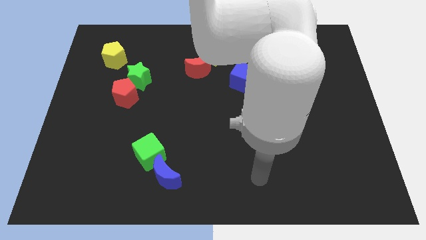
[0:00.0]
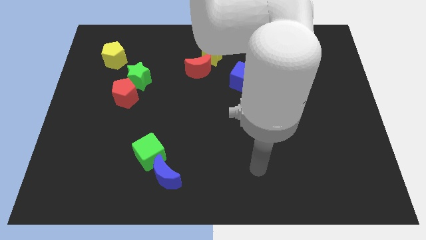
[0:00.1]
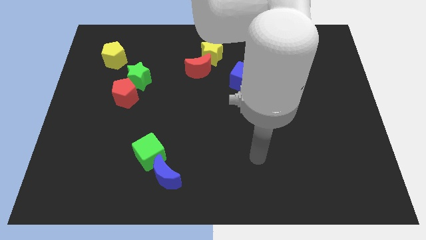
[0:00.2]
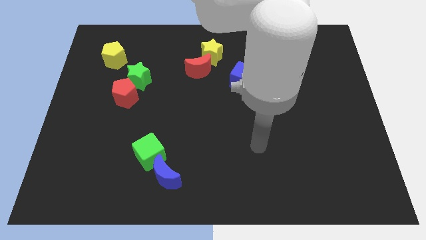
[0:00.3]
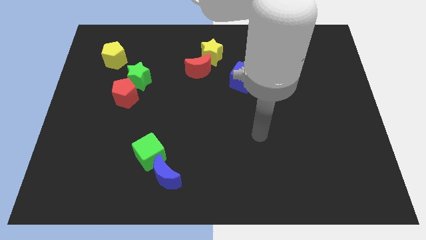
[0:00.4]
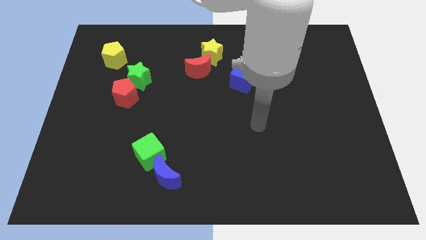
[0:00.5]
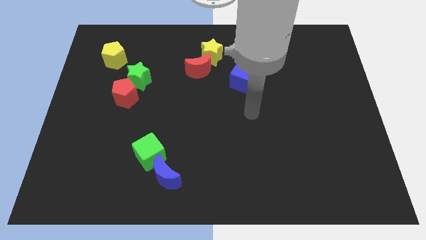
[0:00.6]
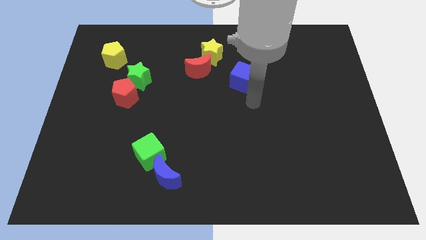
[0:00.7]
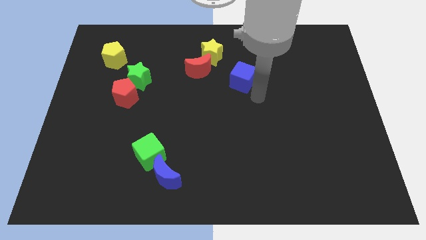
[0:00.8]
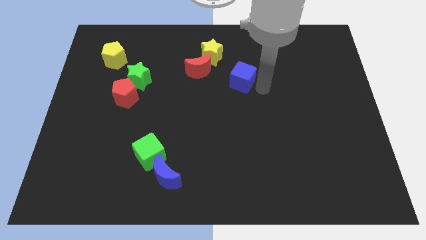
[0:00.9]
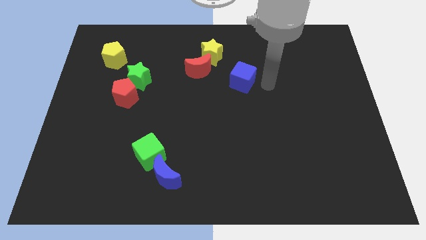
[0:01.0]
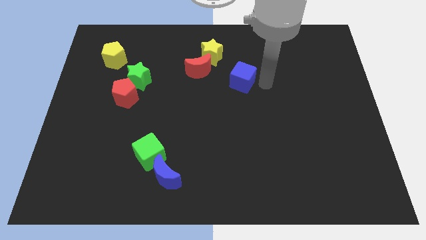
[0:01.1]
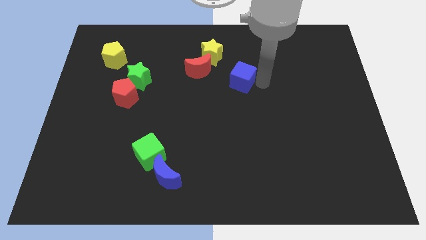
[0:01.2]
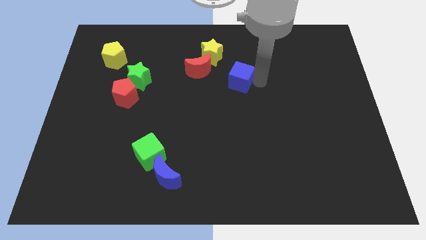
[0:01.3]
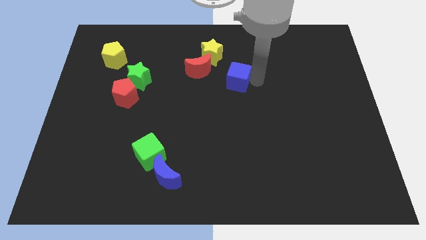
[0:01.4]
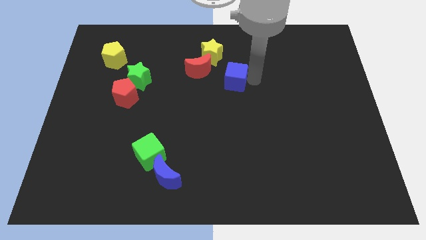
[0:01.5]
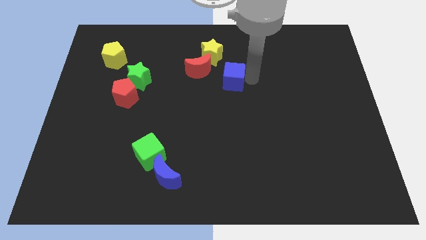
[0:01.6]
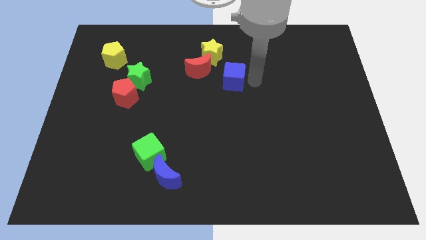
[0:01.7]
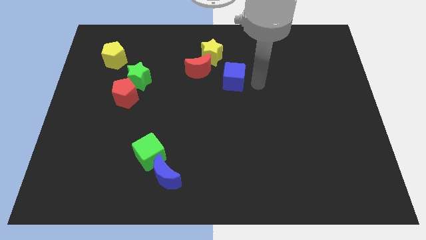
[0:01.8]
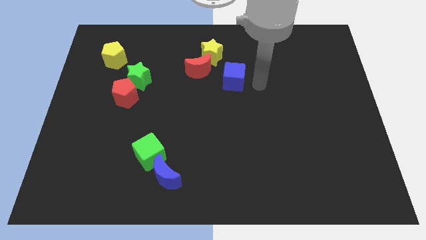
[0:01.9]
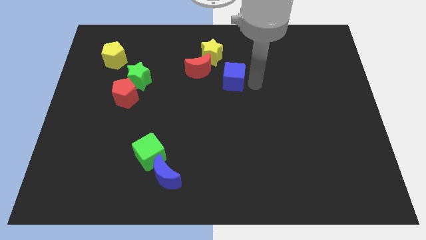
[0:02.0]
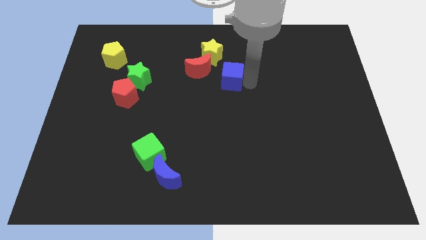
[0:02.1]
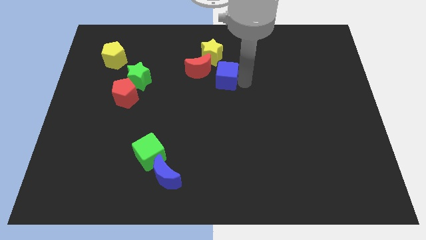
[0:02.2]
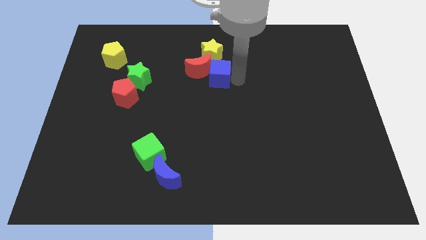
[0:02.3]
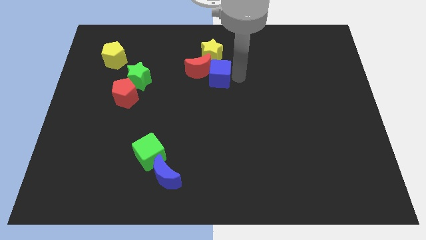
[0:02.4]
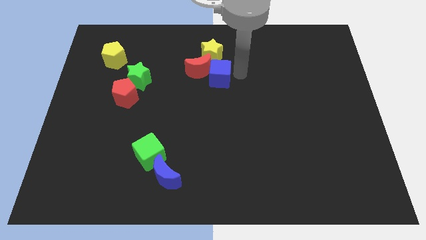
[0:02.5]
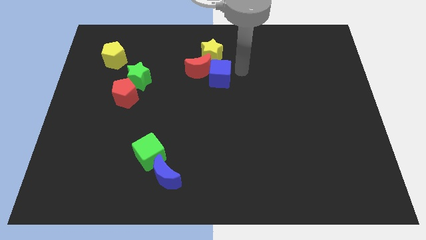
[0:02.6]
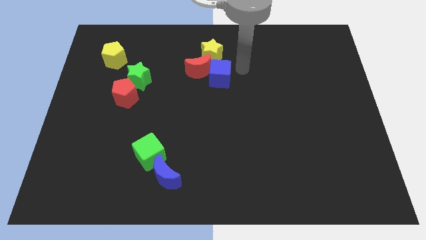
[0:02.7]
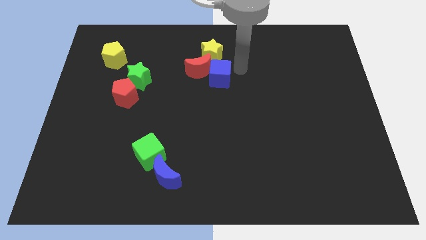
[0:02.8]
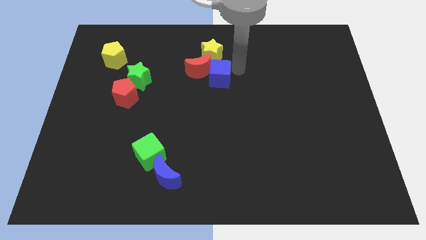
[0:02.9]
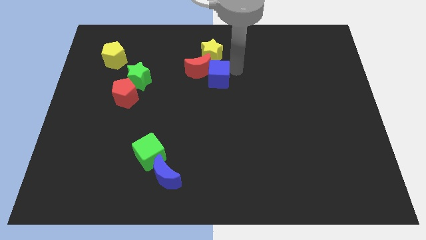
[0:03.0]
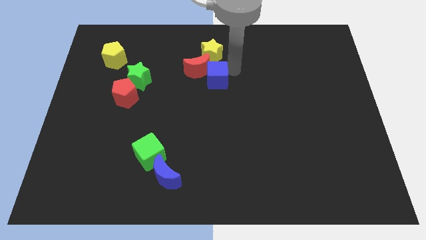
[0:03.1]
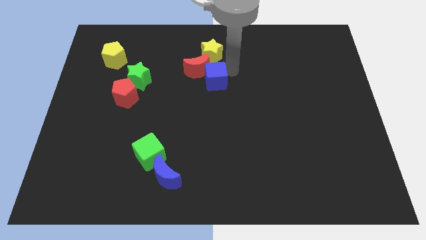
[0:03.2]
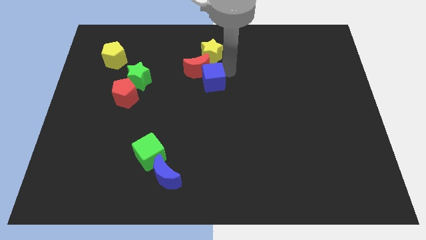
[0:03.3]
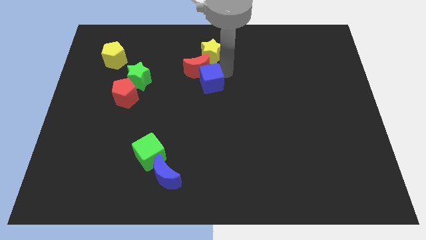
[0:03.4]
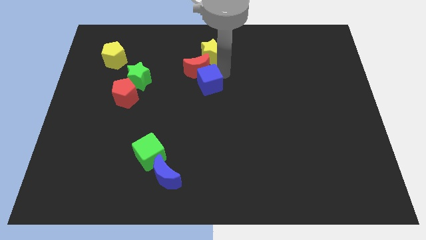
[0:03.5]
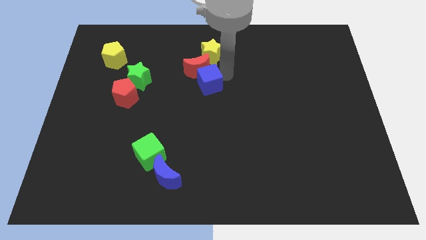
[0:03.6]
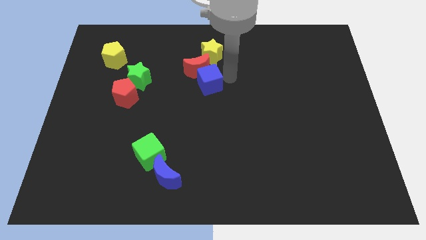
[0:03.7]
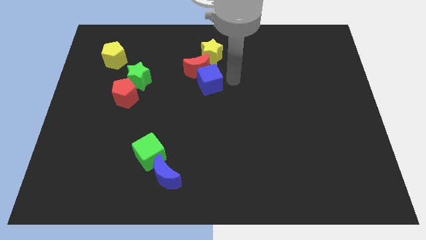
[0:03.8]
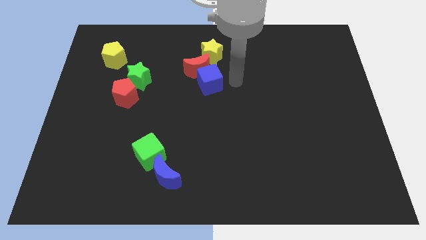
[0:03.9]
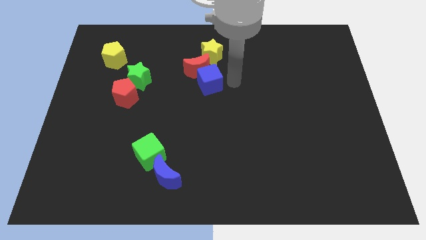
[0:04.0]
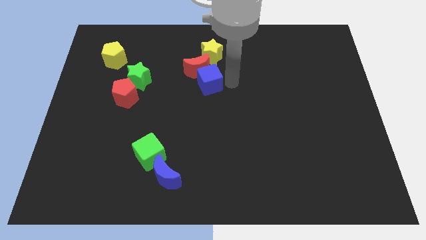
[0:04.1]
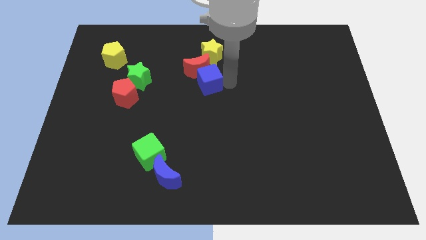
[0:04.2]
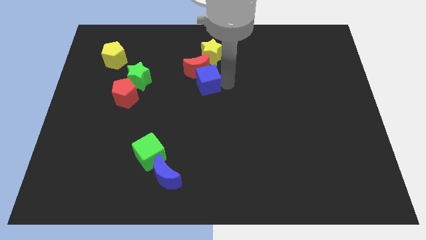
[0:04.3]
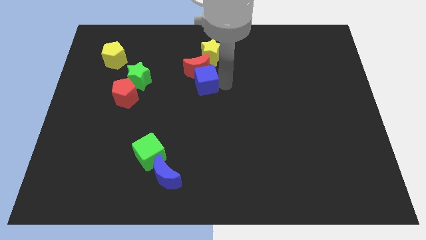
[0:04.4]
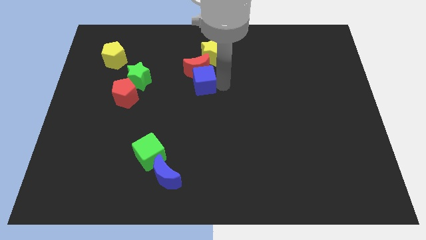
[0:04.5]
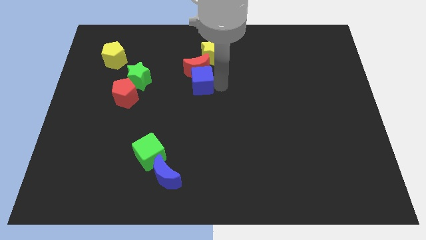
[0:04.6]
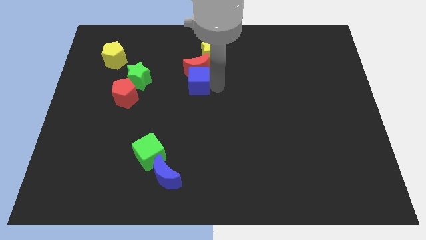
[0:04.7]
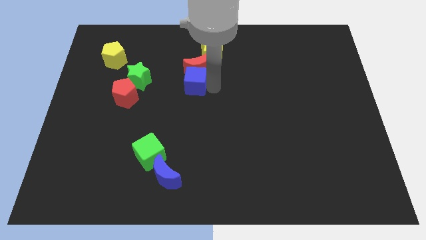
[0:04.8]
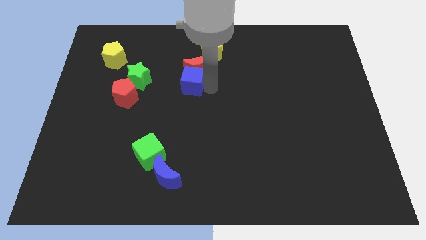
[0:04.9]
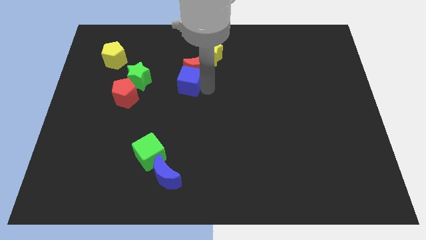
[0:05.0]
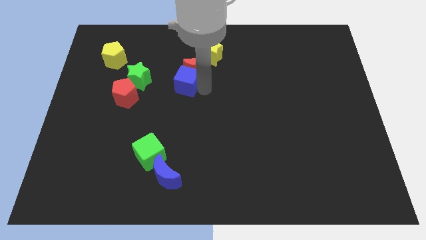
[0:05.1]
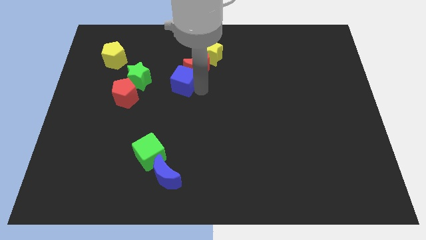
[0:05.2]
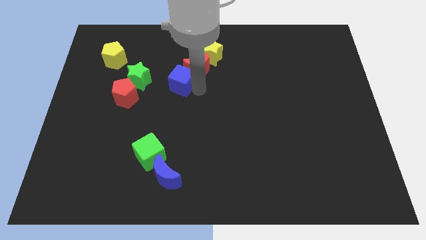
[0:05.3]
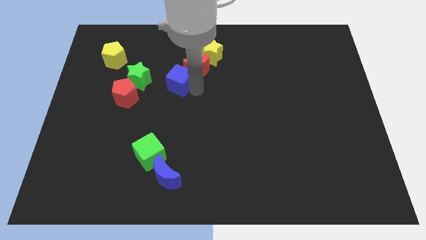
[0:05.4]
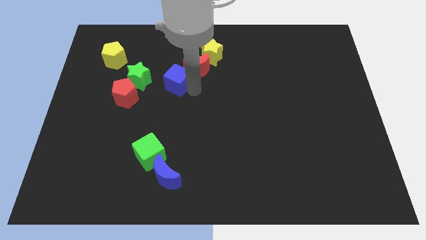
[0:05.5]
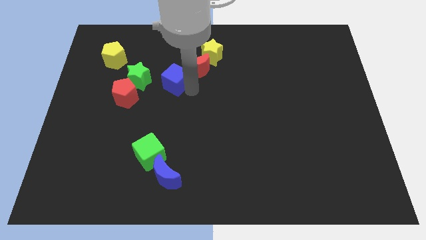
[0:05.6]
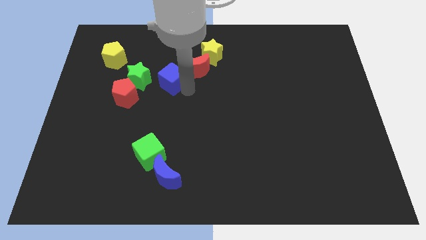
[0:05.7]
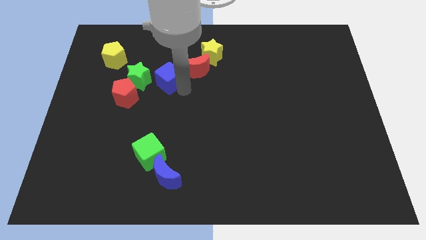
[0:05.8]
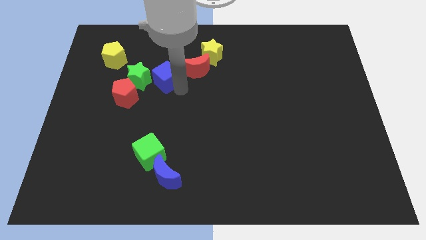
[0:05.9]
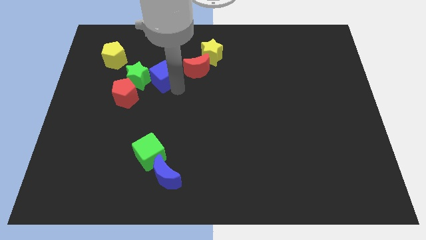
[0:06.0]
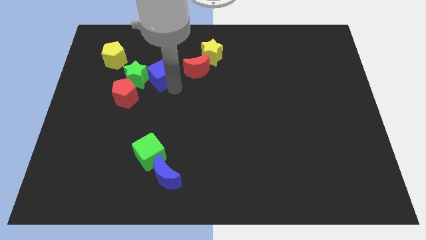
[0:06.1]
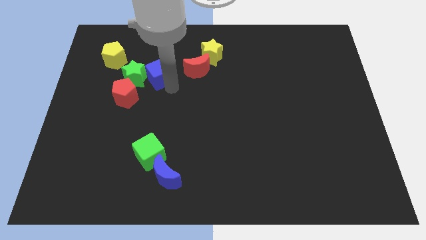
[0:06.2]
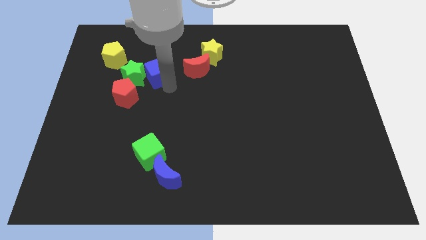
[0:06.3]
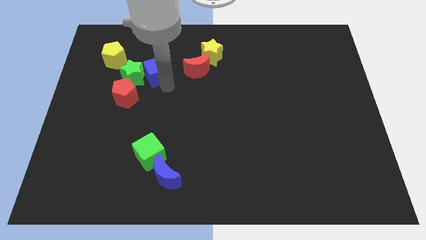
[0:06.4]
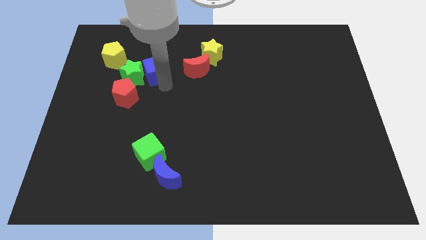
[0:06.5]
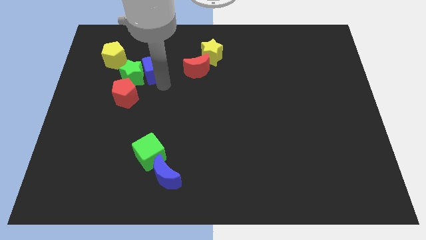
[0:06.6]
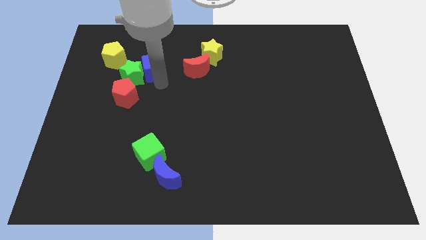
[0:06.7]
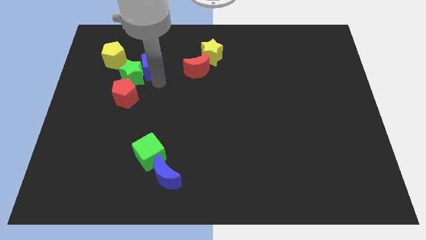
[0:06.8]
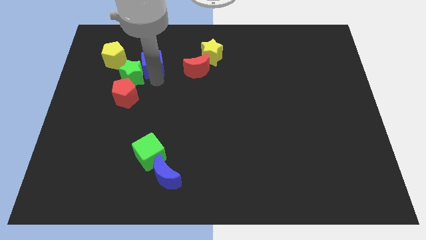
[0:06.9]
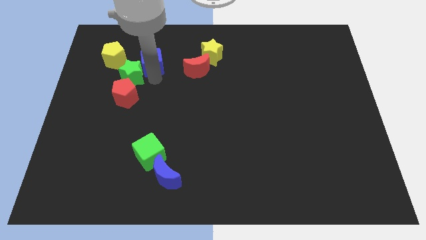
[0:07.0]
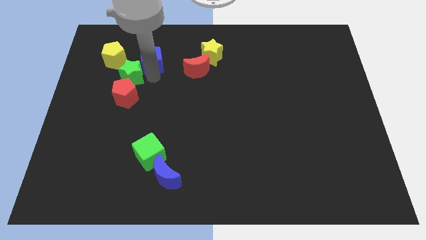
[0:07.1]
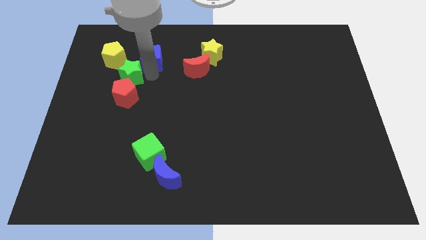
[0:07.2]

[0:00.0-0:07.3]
move the blue cube to the top side of the red pentagon

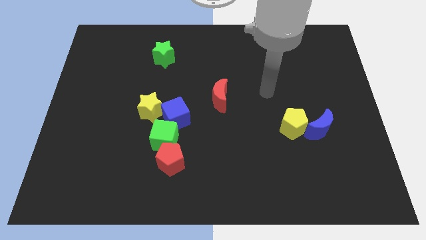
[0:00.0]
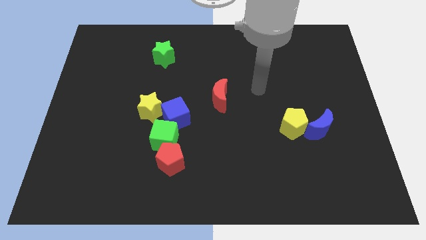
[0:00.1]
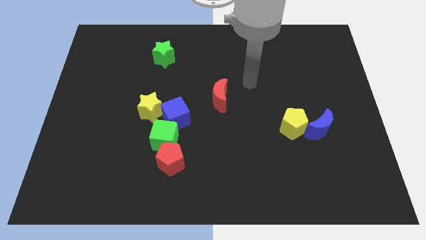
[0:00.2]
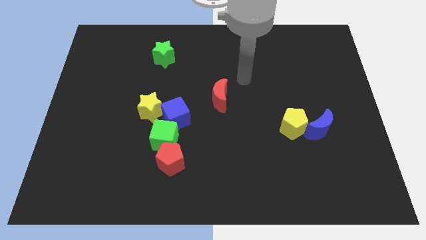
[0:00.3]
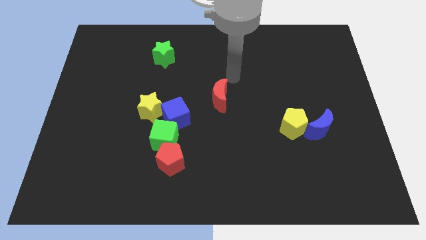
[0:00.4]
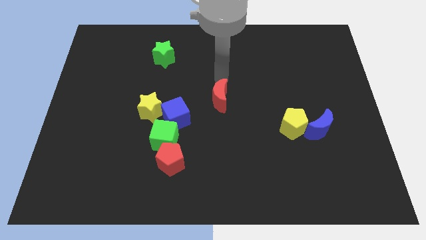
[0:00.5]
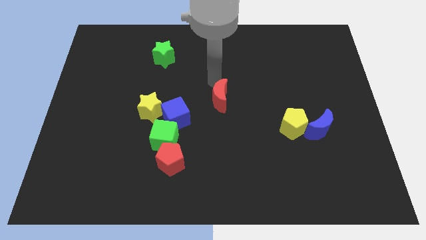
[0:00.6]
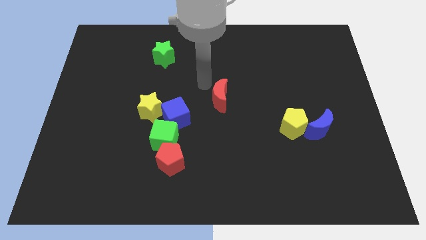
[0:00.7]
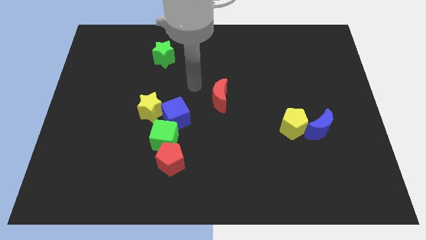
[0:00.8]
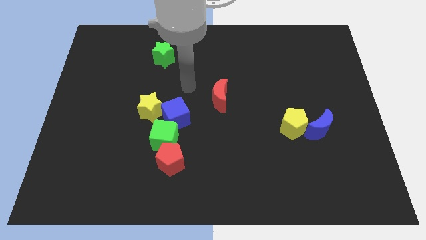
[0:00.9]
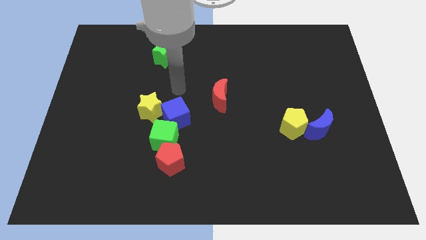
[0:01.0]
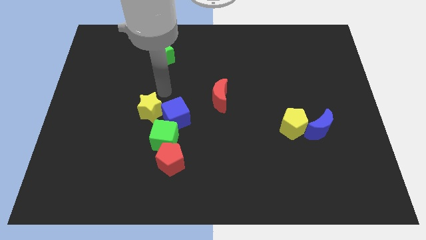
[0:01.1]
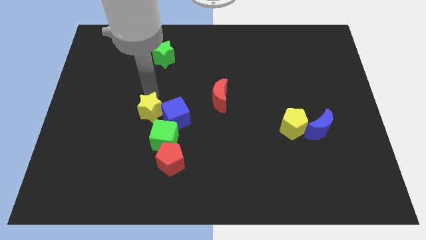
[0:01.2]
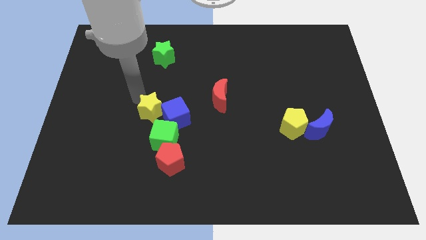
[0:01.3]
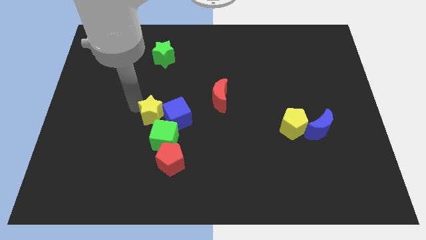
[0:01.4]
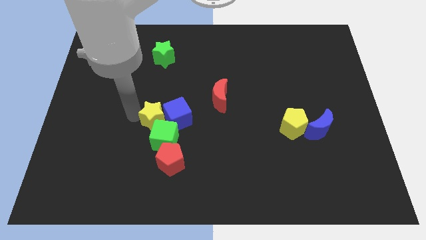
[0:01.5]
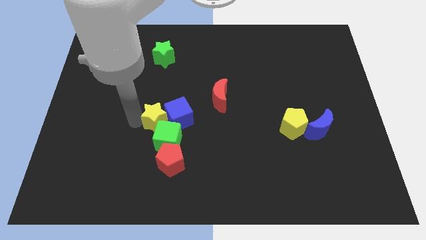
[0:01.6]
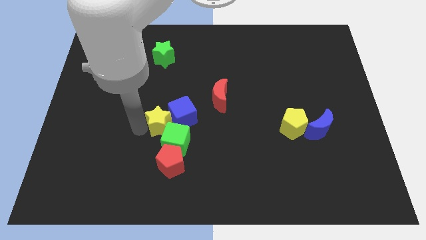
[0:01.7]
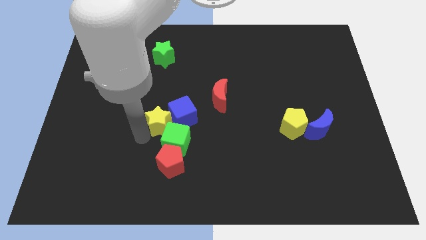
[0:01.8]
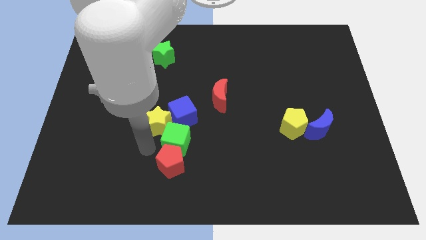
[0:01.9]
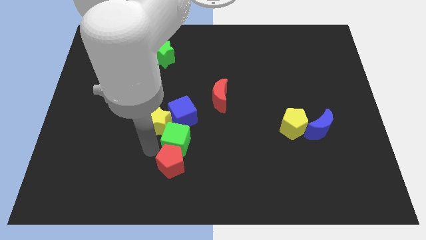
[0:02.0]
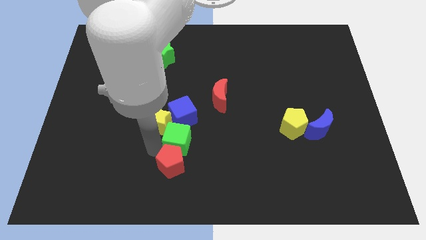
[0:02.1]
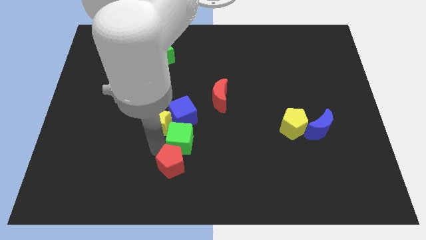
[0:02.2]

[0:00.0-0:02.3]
slide the green cube to the bottom right side of the blue cube
